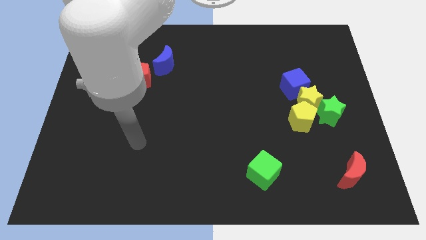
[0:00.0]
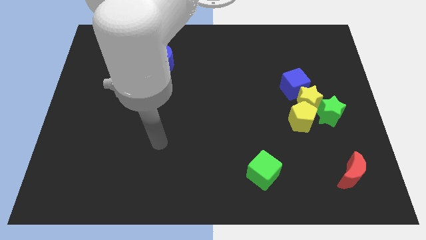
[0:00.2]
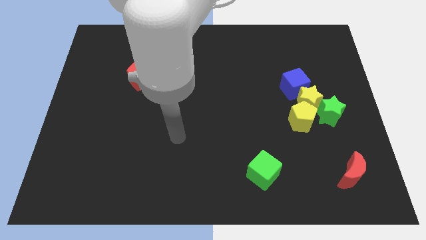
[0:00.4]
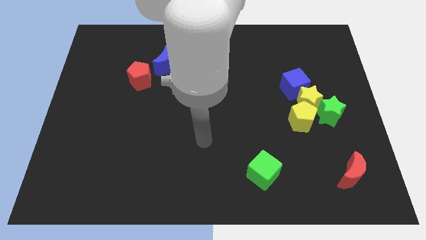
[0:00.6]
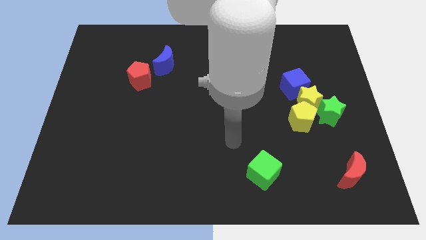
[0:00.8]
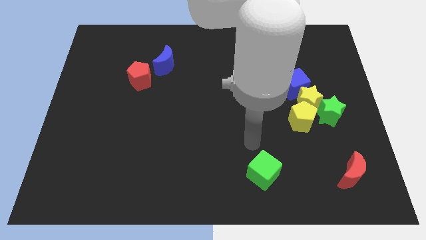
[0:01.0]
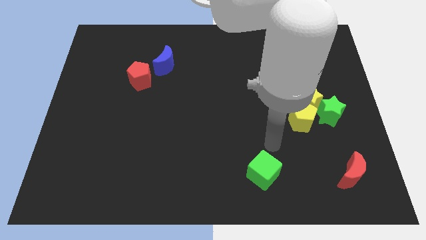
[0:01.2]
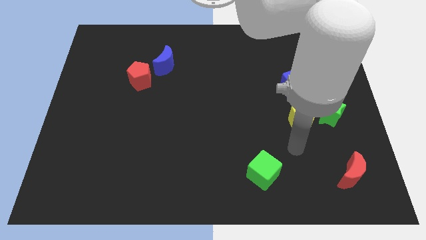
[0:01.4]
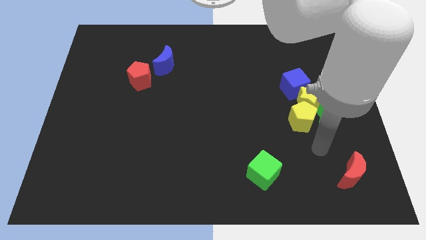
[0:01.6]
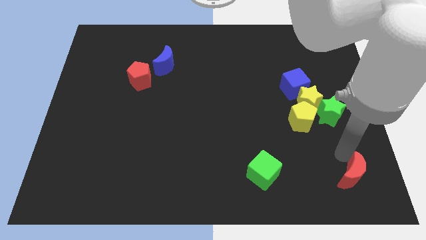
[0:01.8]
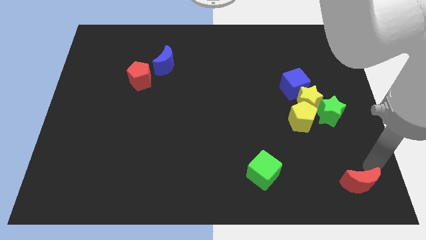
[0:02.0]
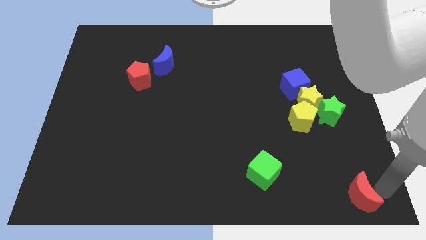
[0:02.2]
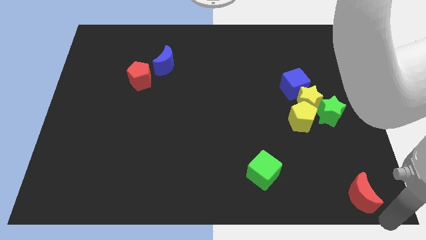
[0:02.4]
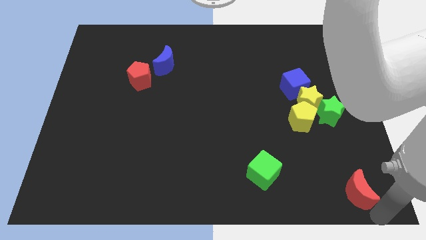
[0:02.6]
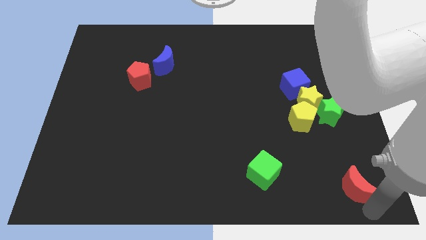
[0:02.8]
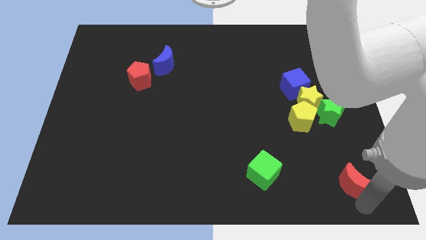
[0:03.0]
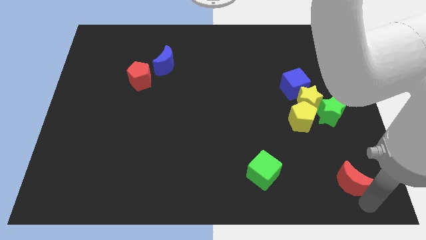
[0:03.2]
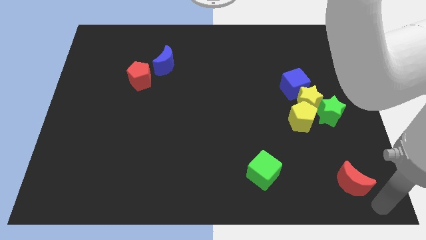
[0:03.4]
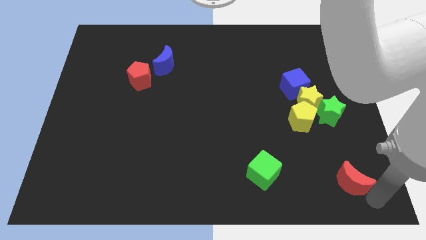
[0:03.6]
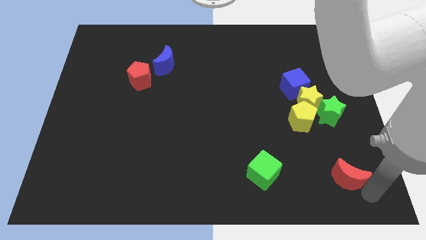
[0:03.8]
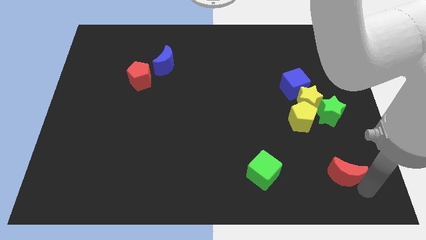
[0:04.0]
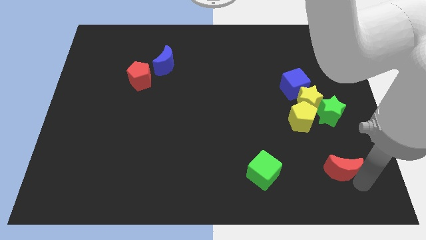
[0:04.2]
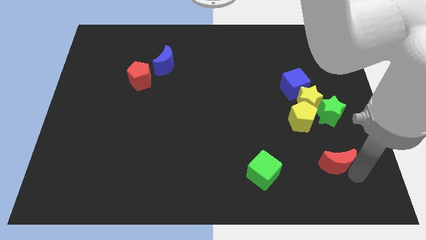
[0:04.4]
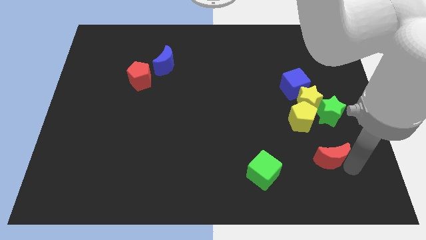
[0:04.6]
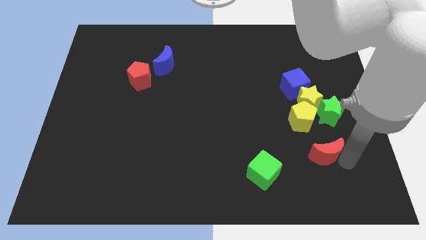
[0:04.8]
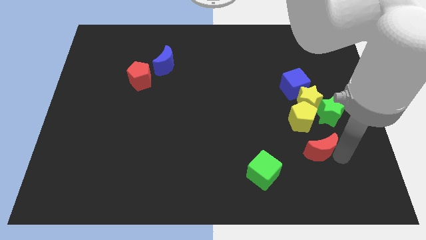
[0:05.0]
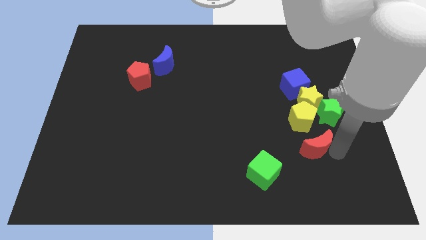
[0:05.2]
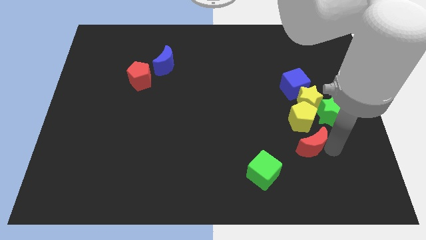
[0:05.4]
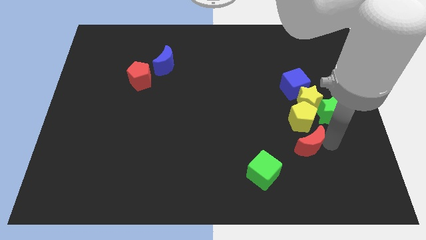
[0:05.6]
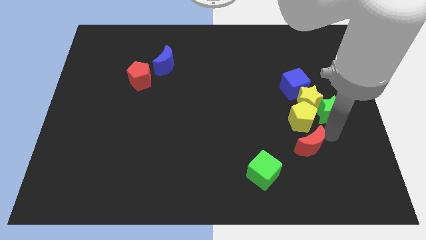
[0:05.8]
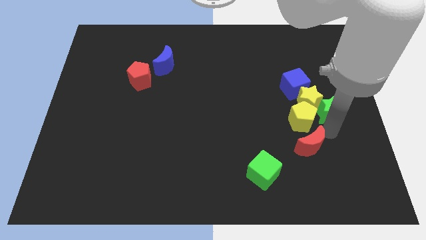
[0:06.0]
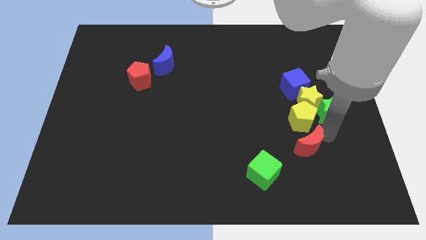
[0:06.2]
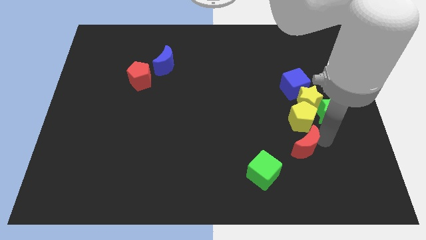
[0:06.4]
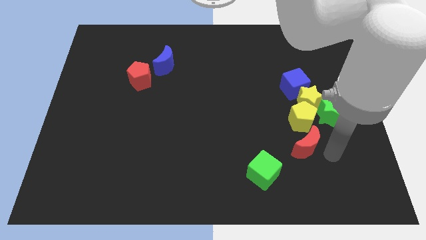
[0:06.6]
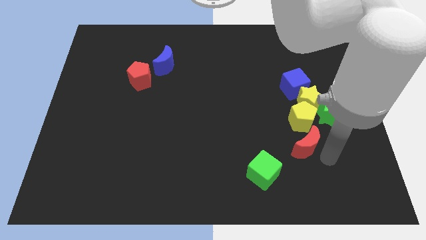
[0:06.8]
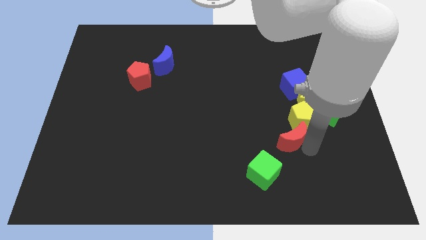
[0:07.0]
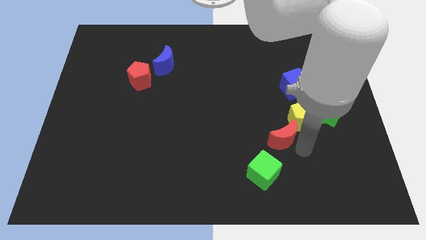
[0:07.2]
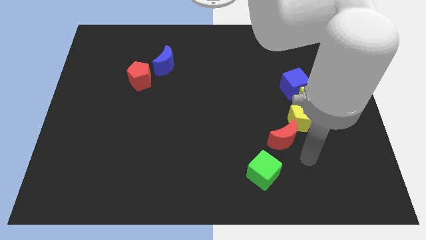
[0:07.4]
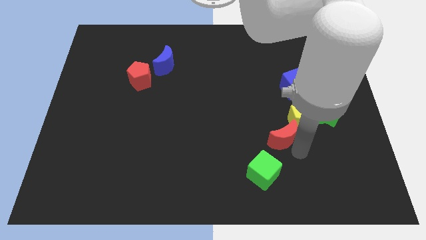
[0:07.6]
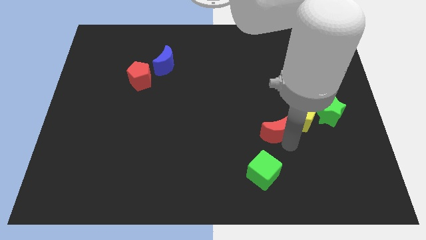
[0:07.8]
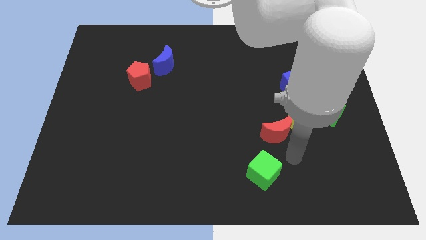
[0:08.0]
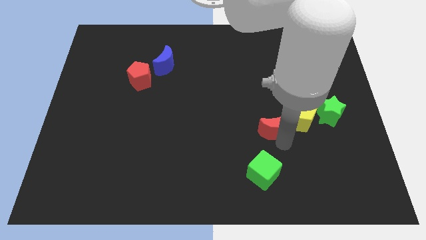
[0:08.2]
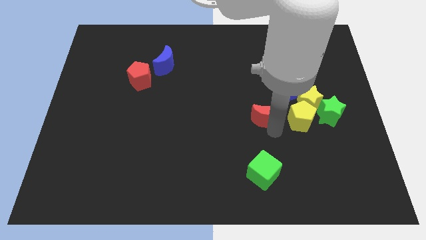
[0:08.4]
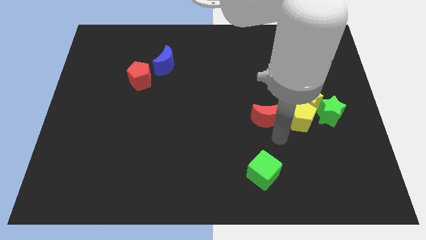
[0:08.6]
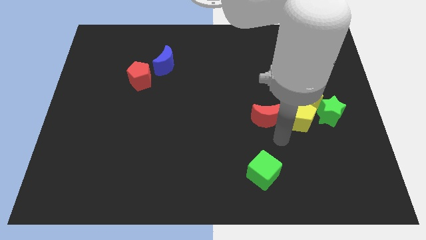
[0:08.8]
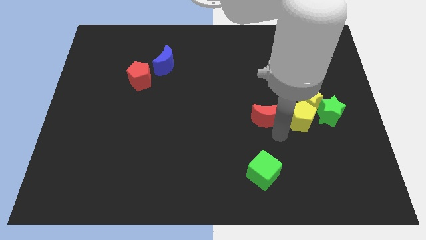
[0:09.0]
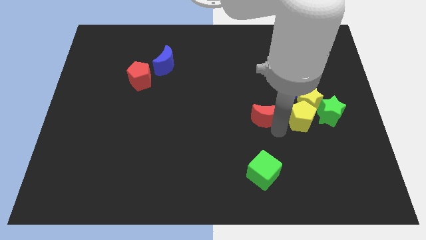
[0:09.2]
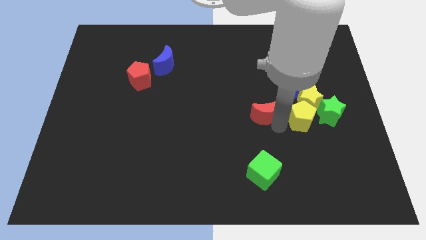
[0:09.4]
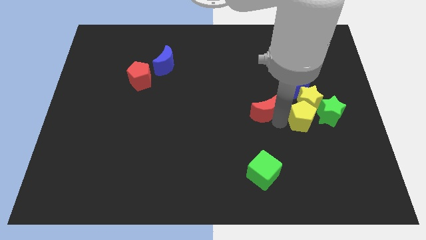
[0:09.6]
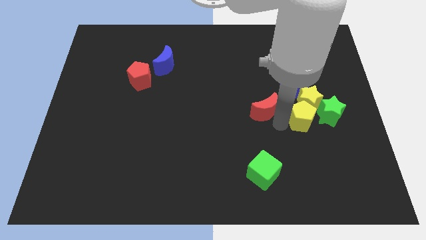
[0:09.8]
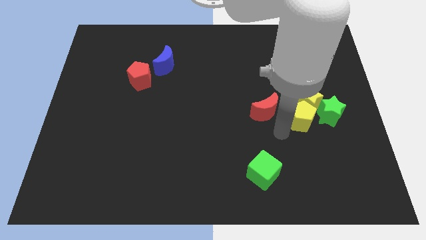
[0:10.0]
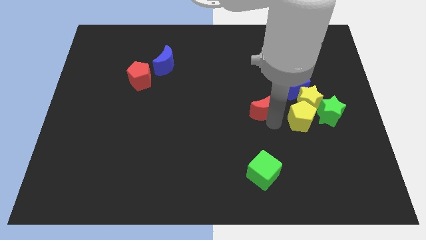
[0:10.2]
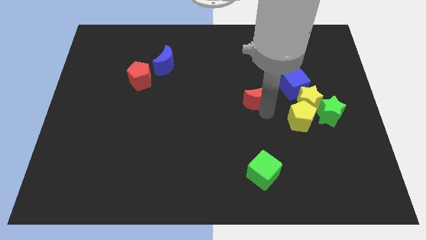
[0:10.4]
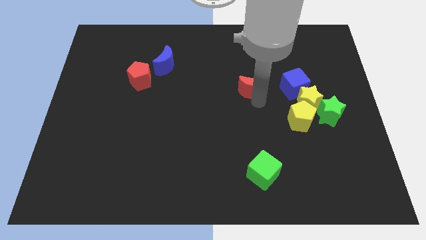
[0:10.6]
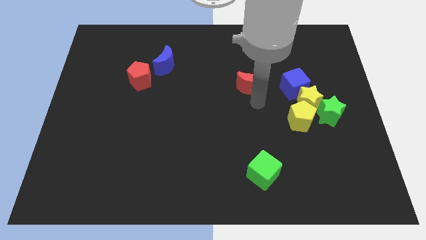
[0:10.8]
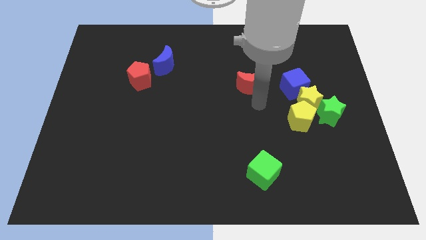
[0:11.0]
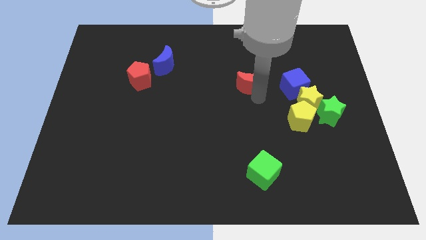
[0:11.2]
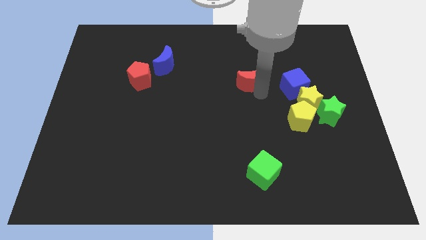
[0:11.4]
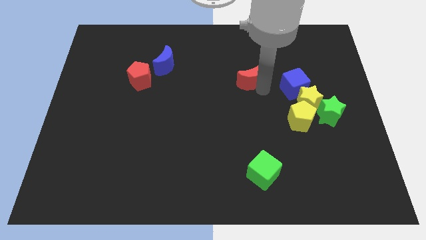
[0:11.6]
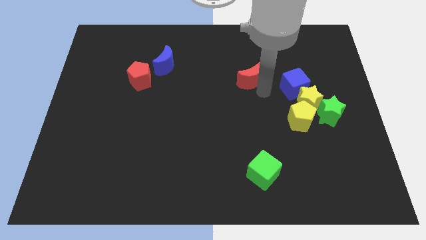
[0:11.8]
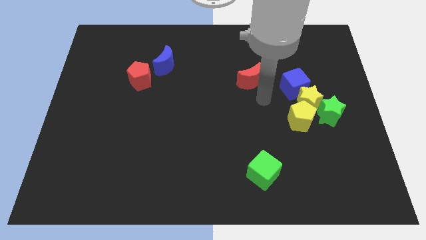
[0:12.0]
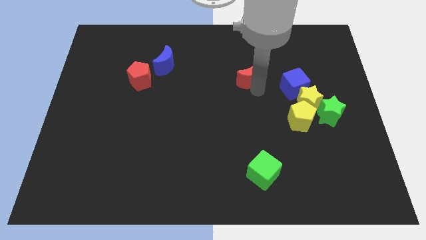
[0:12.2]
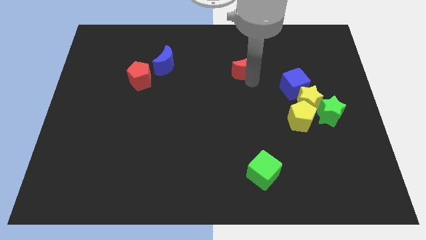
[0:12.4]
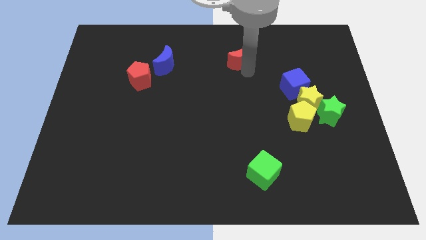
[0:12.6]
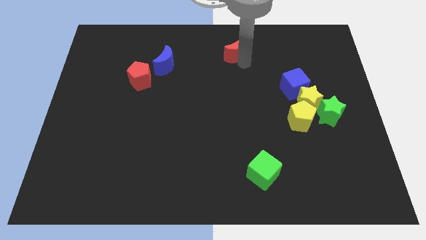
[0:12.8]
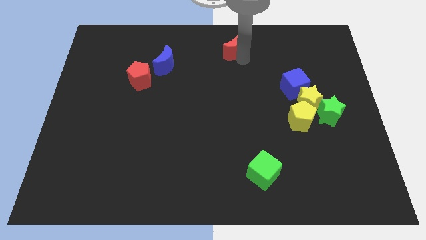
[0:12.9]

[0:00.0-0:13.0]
put the red moon to the top
